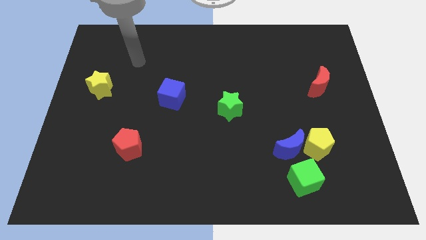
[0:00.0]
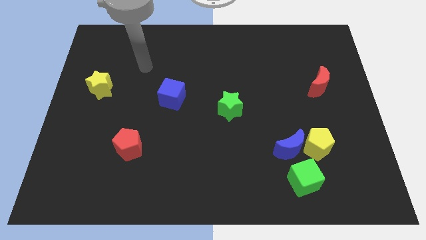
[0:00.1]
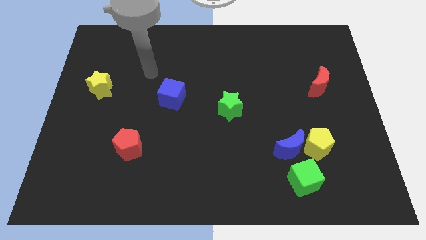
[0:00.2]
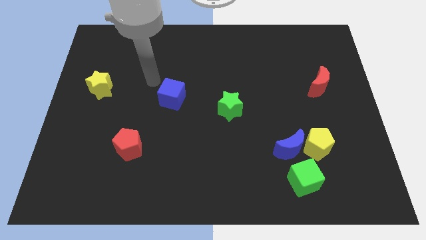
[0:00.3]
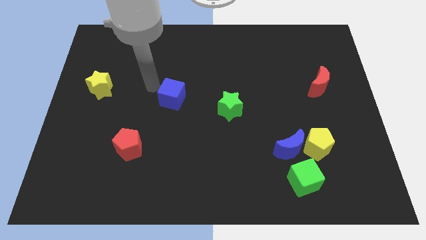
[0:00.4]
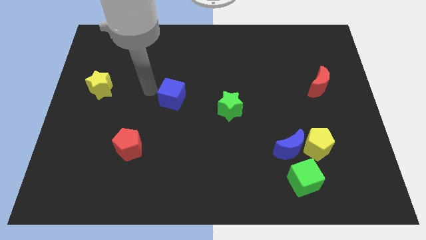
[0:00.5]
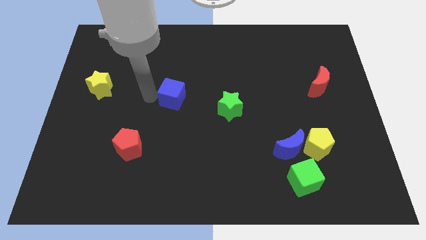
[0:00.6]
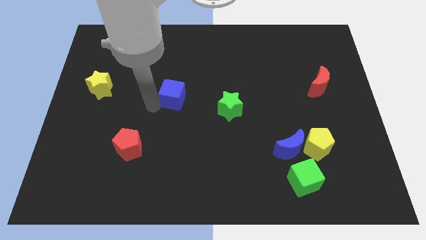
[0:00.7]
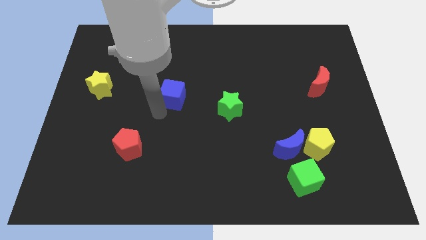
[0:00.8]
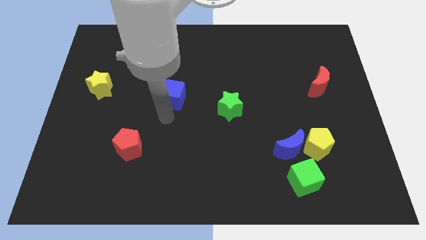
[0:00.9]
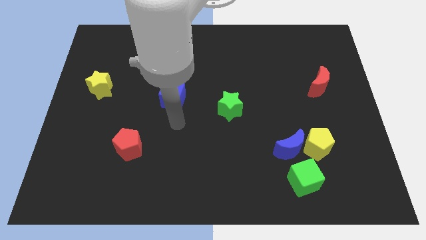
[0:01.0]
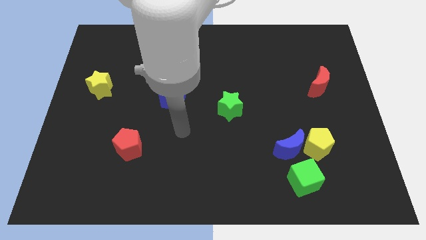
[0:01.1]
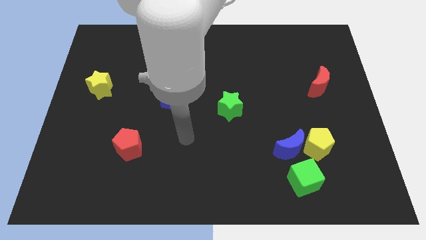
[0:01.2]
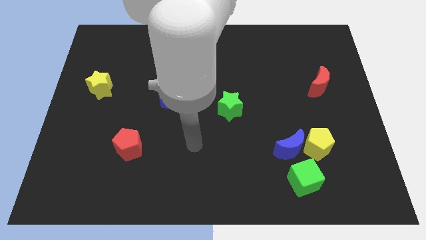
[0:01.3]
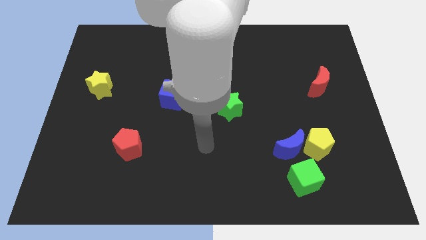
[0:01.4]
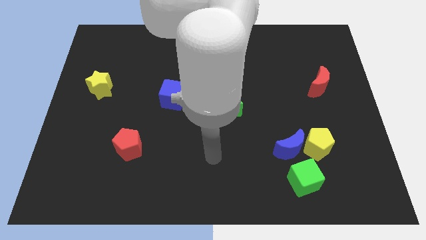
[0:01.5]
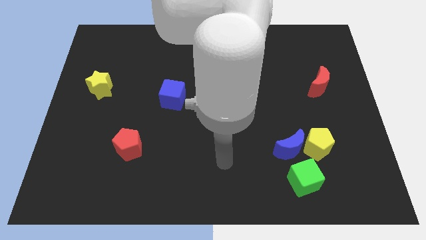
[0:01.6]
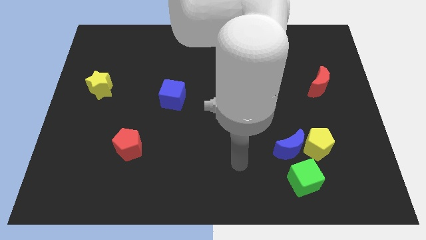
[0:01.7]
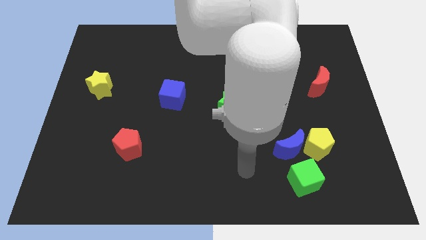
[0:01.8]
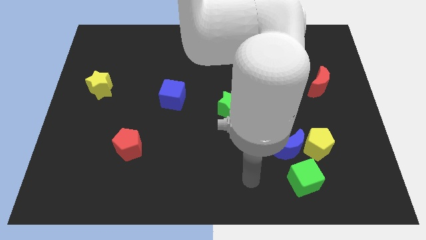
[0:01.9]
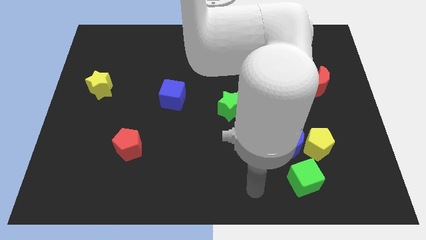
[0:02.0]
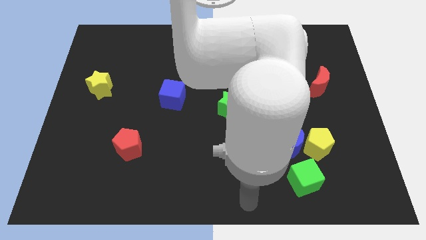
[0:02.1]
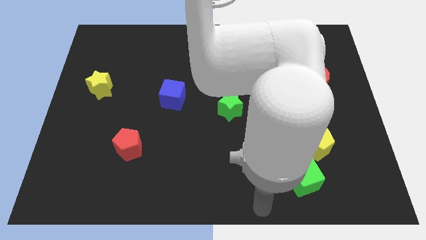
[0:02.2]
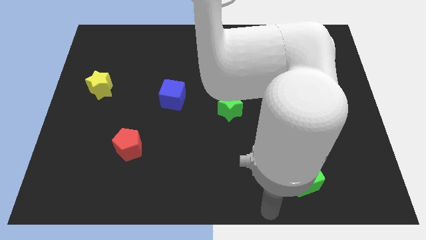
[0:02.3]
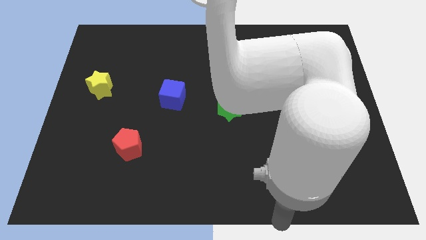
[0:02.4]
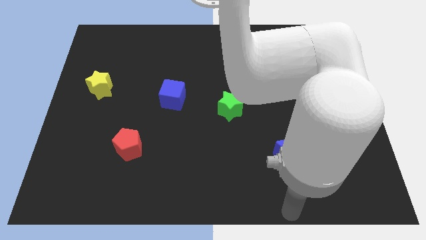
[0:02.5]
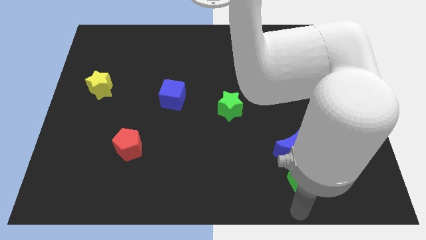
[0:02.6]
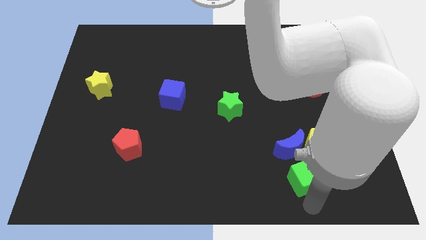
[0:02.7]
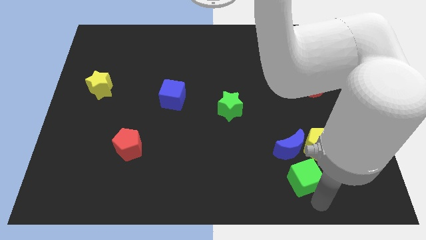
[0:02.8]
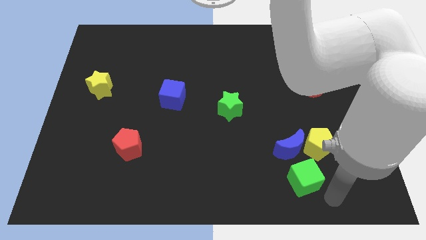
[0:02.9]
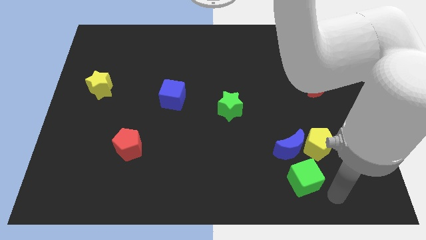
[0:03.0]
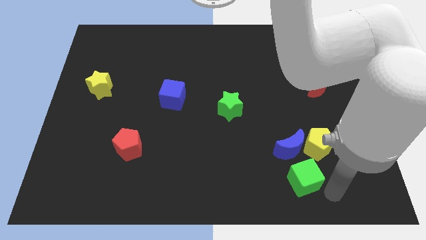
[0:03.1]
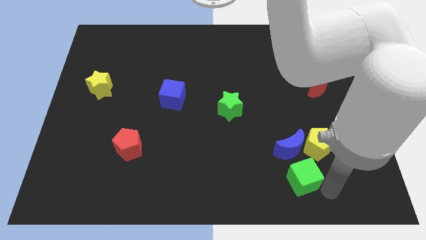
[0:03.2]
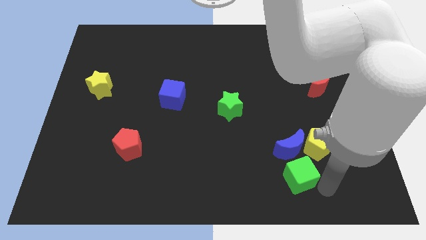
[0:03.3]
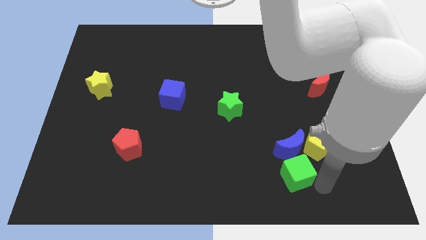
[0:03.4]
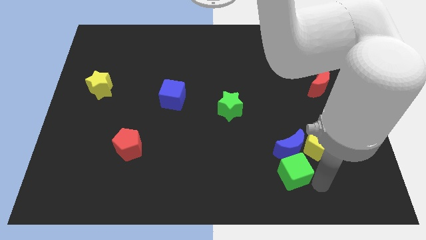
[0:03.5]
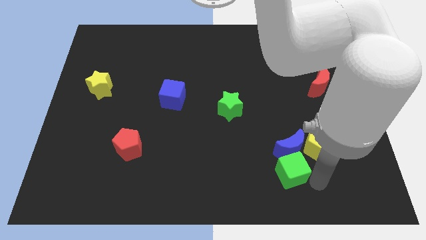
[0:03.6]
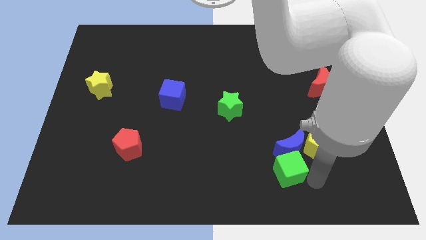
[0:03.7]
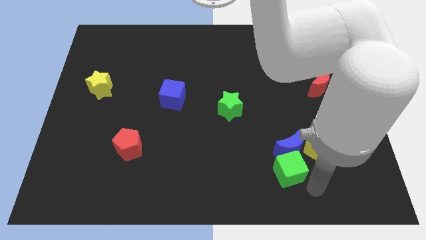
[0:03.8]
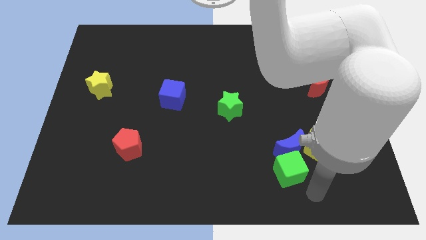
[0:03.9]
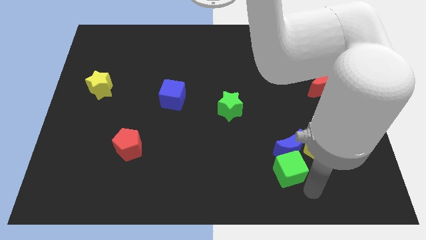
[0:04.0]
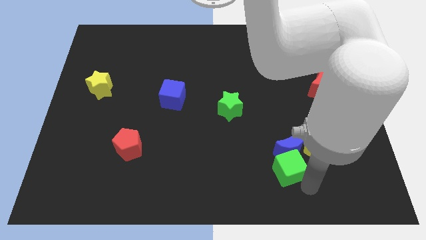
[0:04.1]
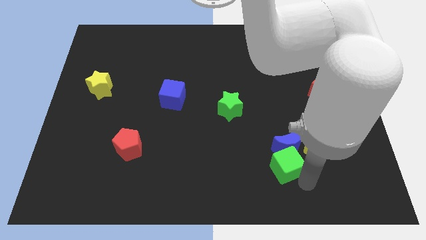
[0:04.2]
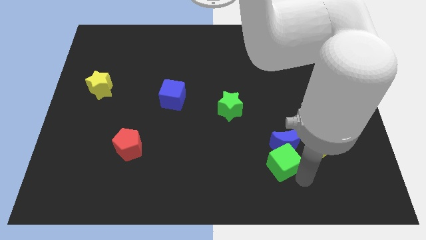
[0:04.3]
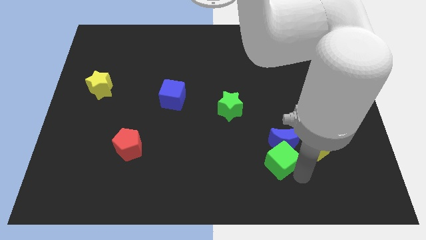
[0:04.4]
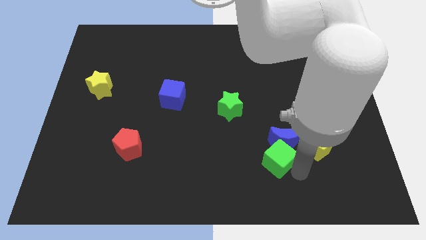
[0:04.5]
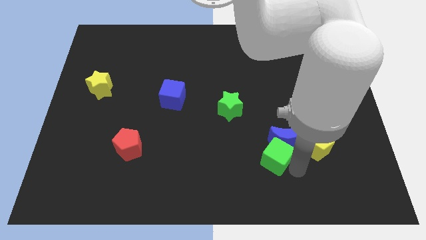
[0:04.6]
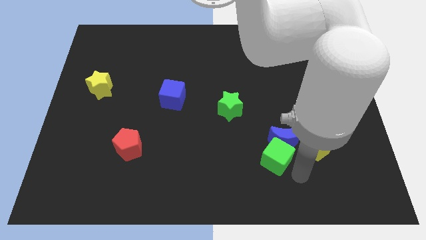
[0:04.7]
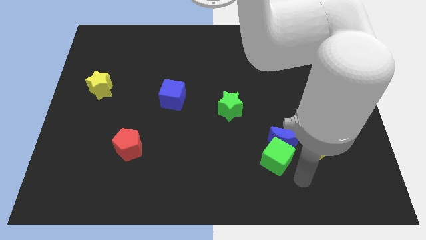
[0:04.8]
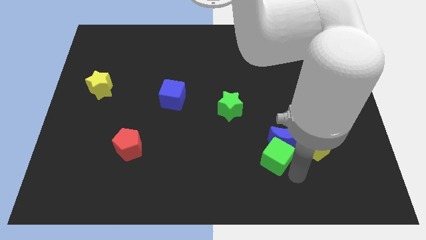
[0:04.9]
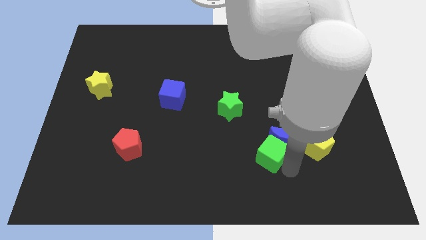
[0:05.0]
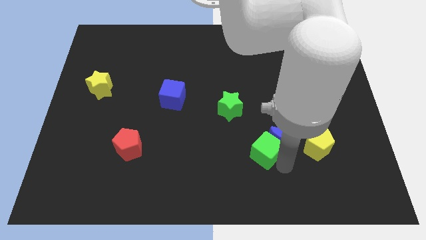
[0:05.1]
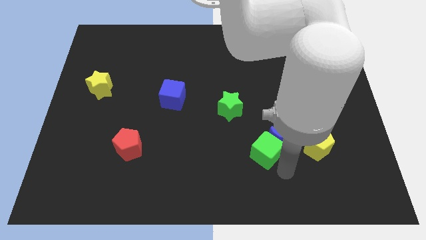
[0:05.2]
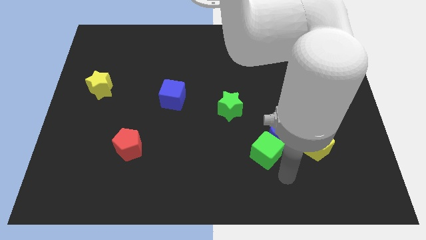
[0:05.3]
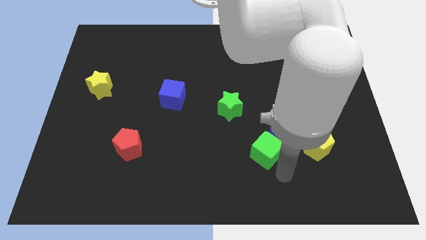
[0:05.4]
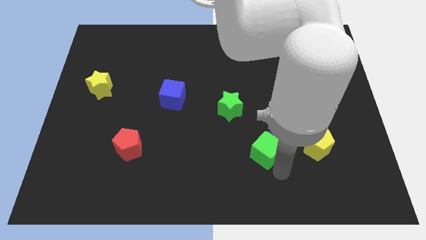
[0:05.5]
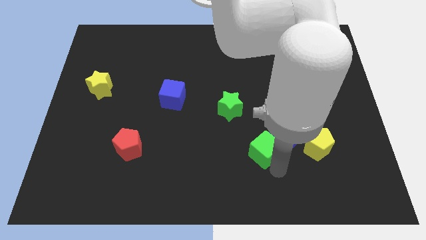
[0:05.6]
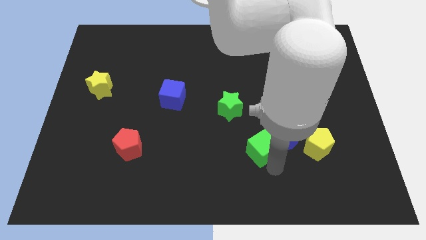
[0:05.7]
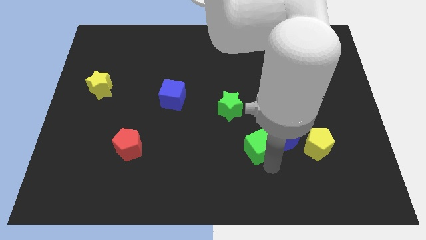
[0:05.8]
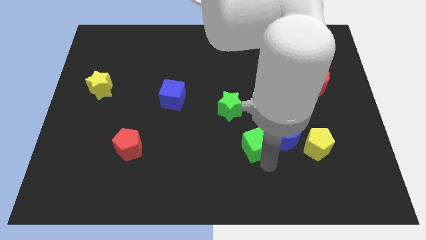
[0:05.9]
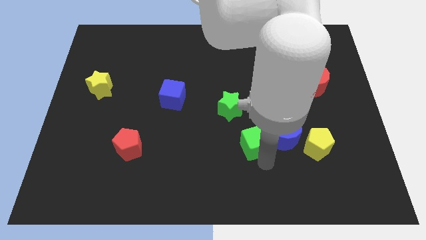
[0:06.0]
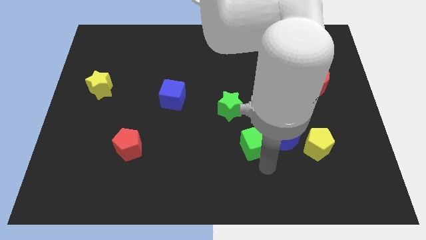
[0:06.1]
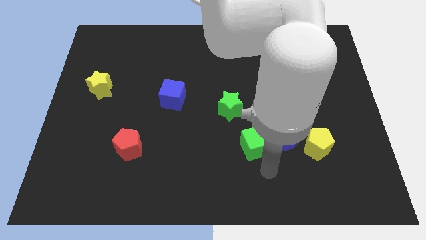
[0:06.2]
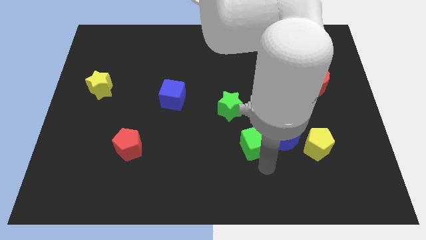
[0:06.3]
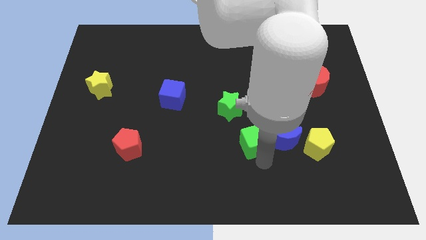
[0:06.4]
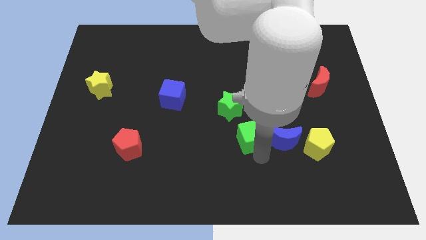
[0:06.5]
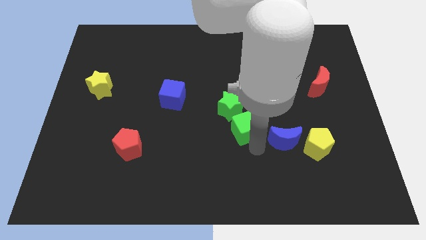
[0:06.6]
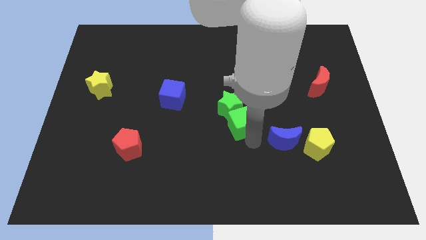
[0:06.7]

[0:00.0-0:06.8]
put the green cube to the green star
